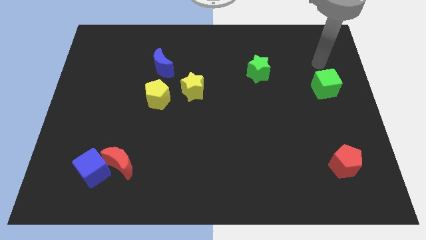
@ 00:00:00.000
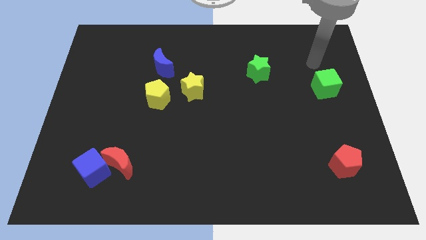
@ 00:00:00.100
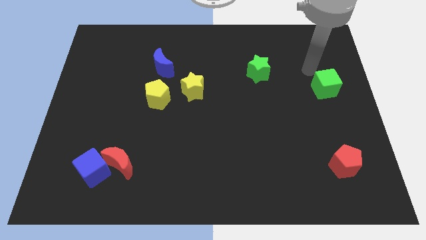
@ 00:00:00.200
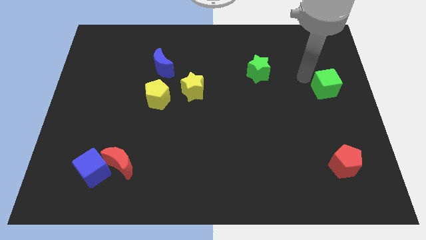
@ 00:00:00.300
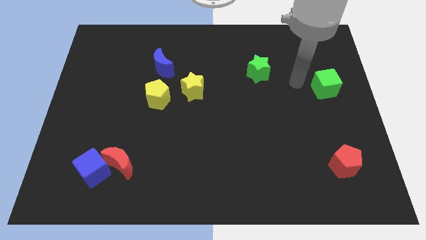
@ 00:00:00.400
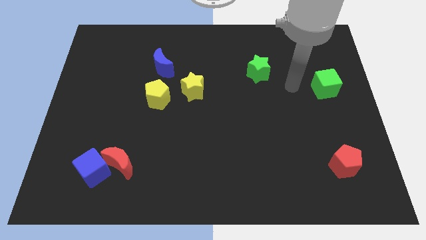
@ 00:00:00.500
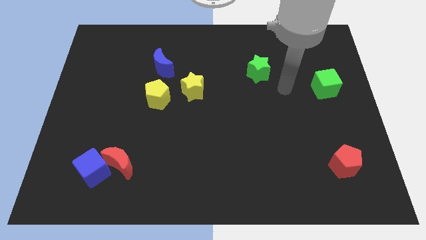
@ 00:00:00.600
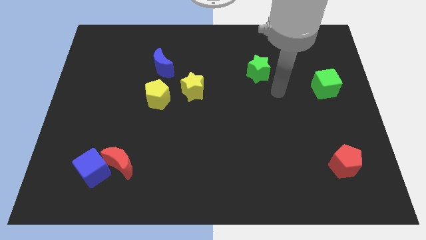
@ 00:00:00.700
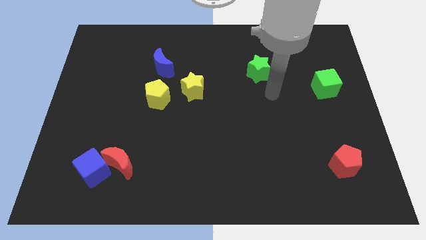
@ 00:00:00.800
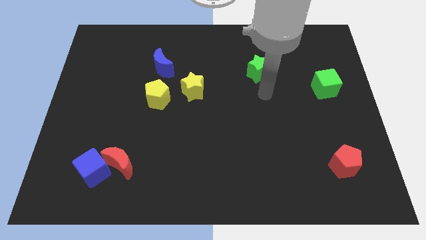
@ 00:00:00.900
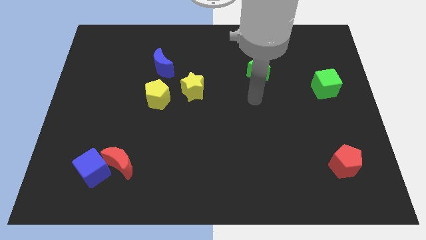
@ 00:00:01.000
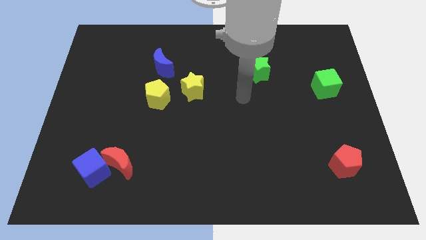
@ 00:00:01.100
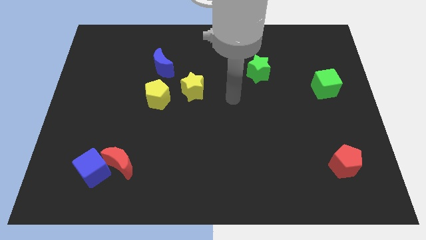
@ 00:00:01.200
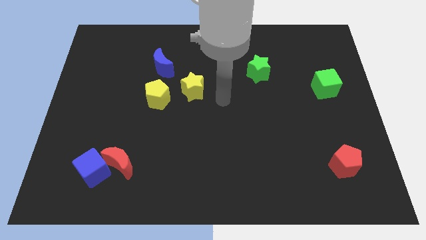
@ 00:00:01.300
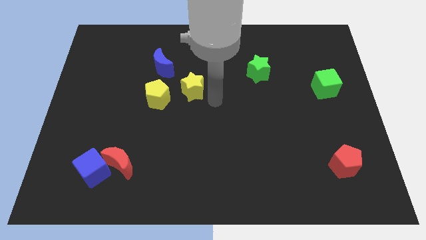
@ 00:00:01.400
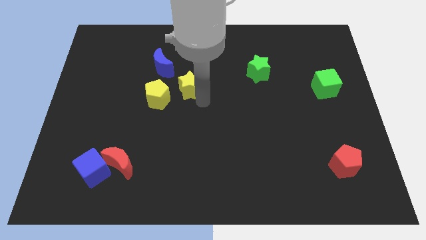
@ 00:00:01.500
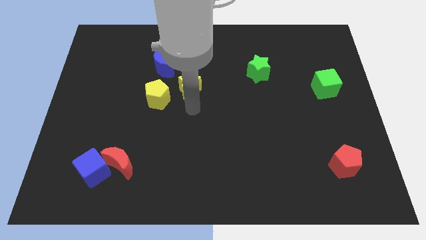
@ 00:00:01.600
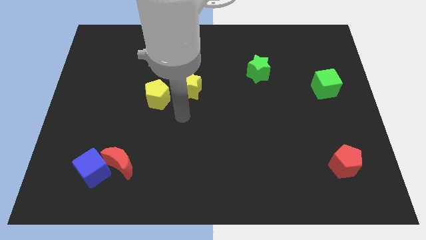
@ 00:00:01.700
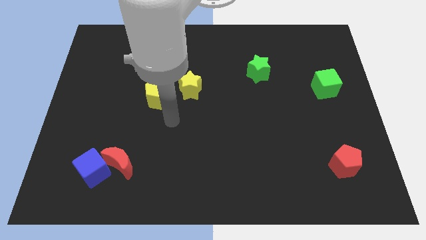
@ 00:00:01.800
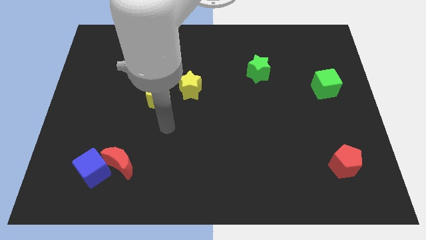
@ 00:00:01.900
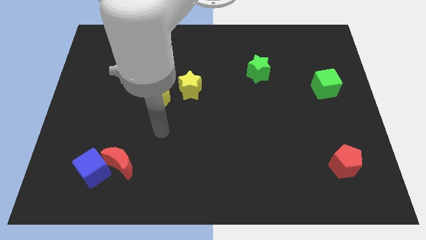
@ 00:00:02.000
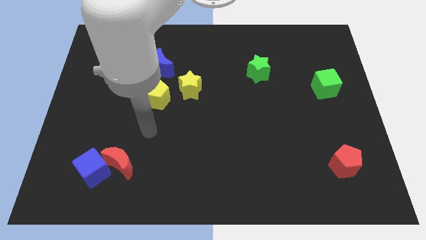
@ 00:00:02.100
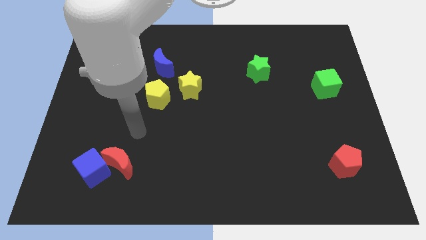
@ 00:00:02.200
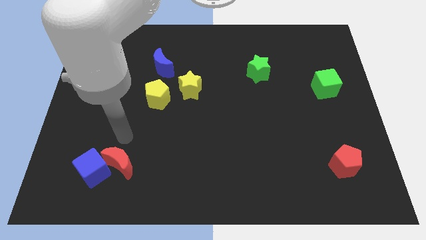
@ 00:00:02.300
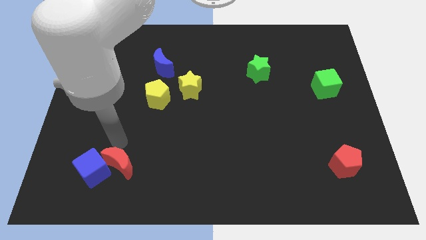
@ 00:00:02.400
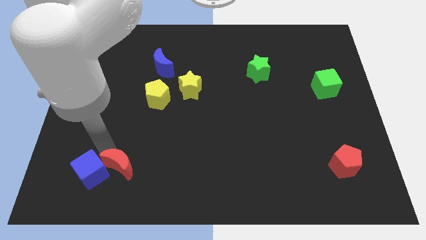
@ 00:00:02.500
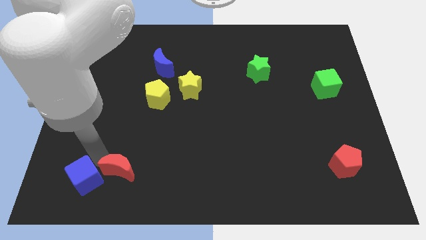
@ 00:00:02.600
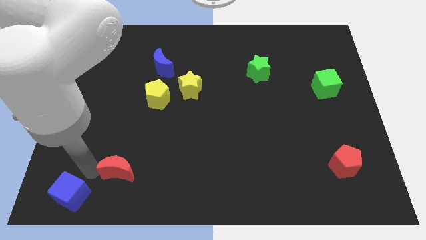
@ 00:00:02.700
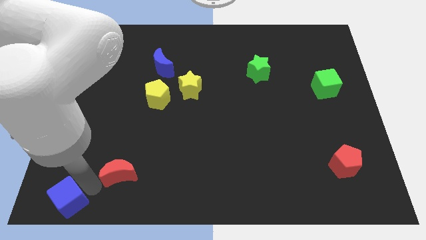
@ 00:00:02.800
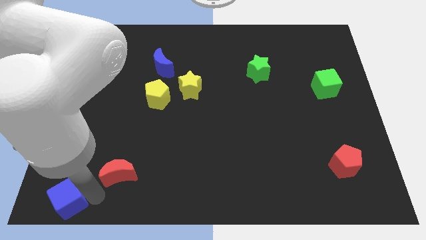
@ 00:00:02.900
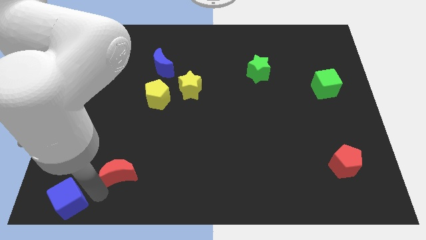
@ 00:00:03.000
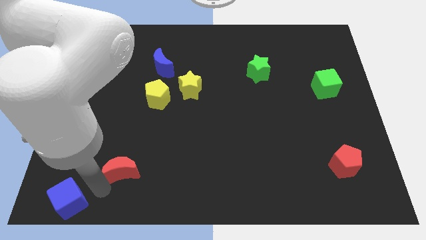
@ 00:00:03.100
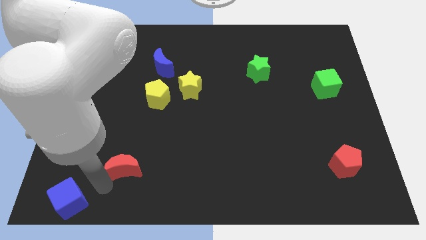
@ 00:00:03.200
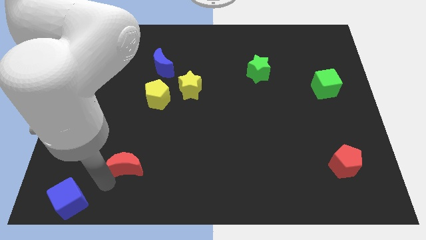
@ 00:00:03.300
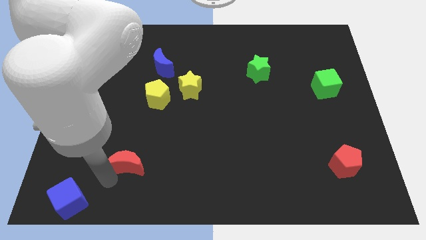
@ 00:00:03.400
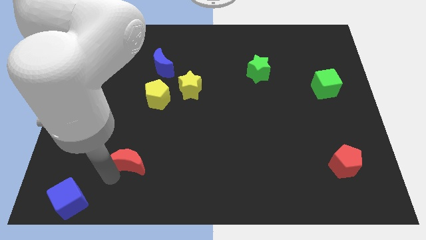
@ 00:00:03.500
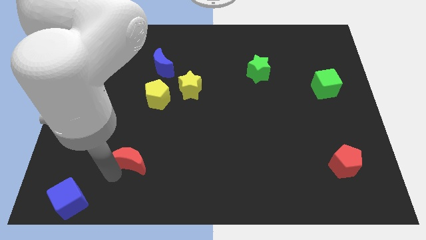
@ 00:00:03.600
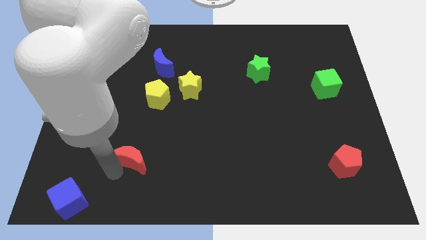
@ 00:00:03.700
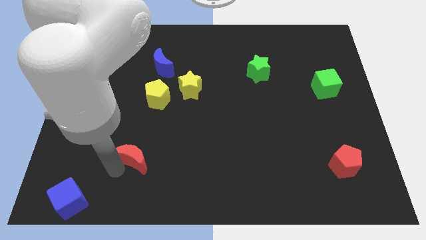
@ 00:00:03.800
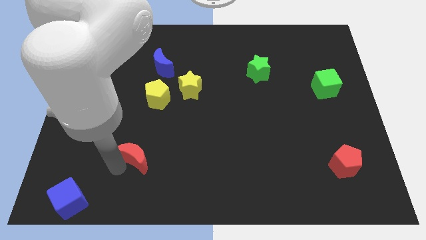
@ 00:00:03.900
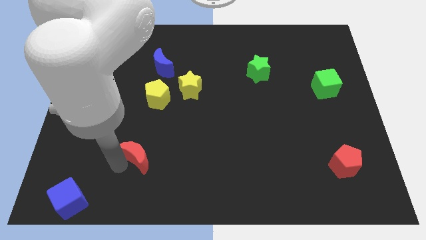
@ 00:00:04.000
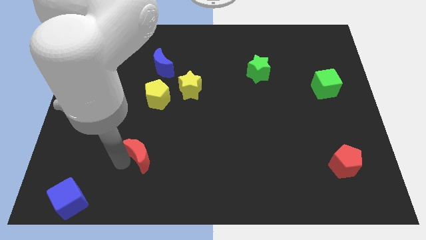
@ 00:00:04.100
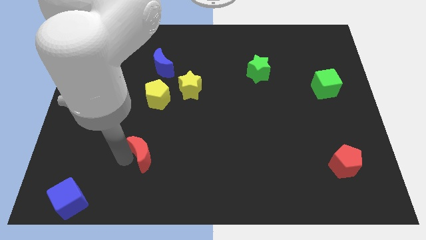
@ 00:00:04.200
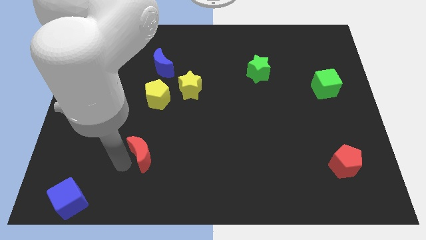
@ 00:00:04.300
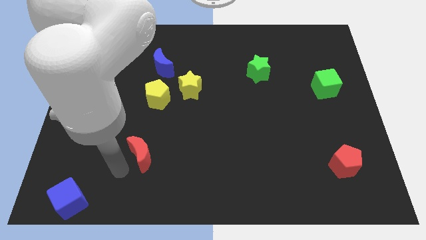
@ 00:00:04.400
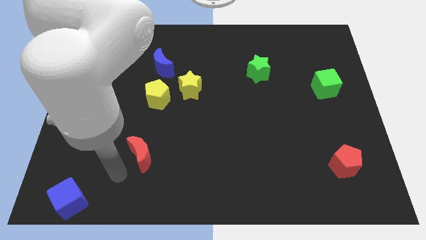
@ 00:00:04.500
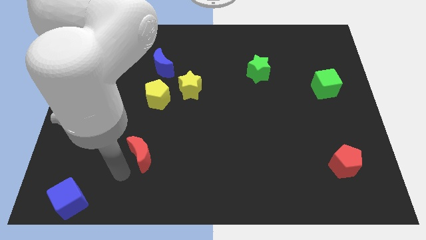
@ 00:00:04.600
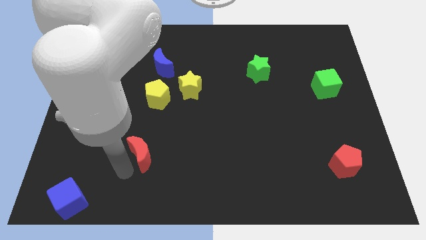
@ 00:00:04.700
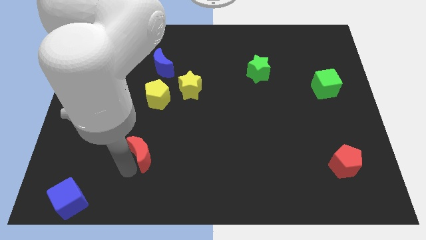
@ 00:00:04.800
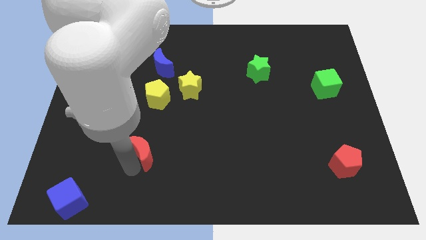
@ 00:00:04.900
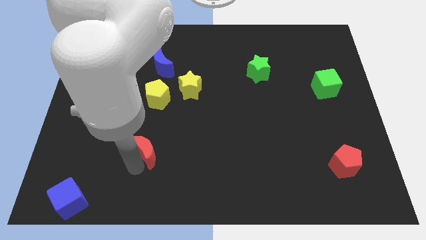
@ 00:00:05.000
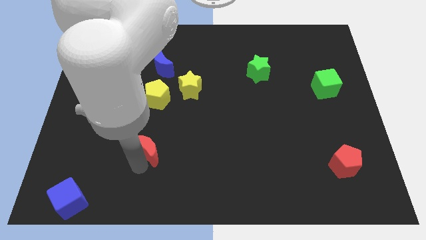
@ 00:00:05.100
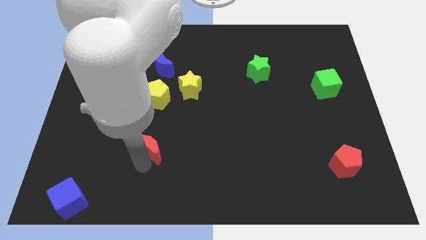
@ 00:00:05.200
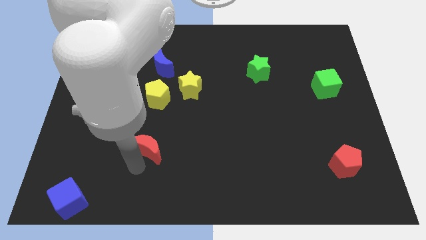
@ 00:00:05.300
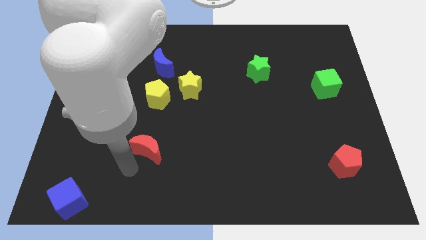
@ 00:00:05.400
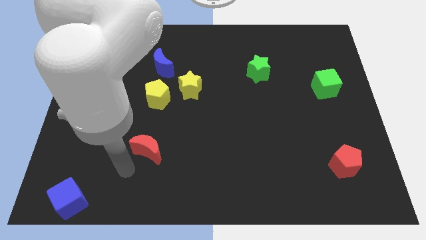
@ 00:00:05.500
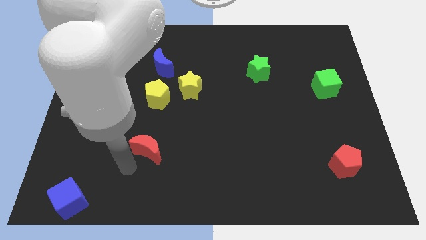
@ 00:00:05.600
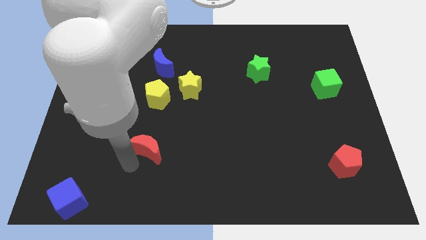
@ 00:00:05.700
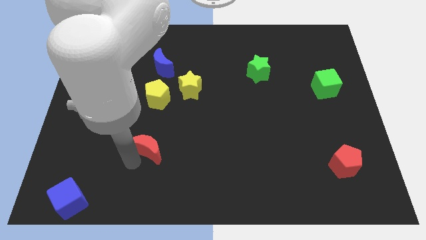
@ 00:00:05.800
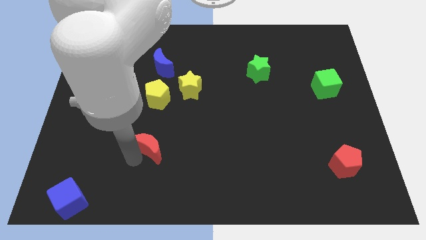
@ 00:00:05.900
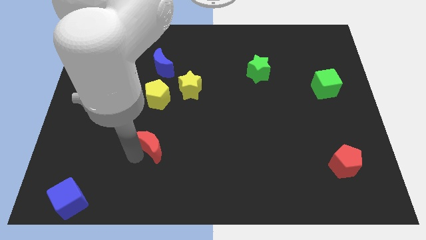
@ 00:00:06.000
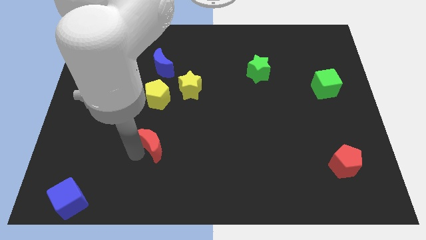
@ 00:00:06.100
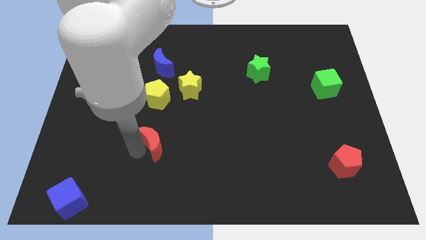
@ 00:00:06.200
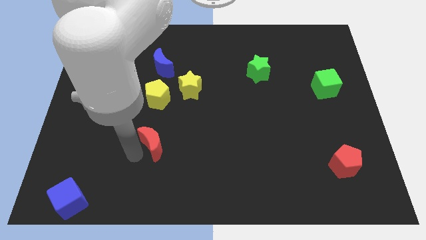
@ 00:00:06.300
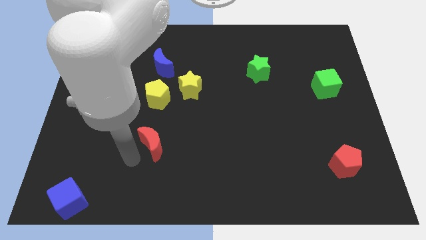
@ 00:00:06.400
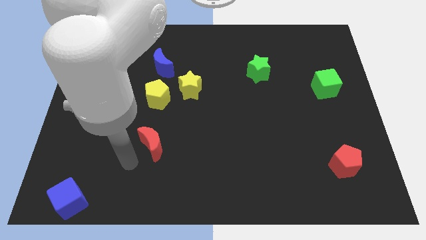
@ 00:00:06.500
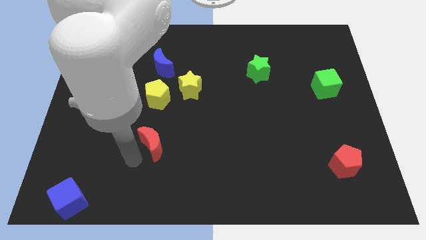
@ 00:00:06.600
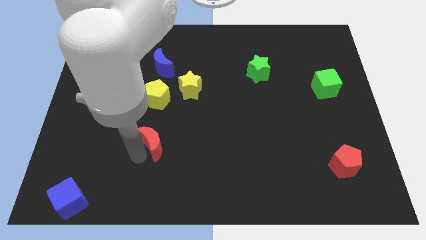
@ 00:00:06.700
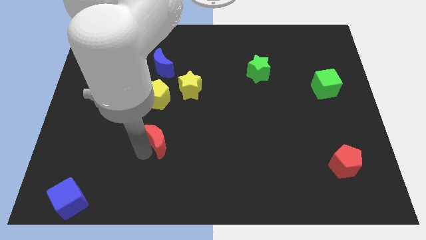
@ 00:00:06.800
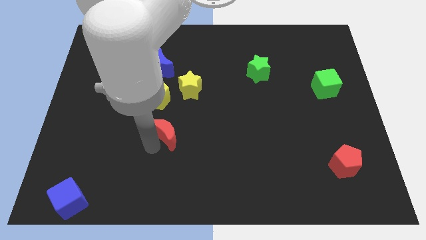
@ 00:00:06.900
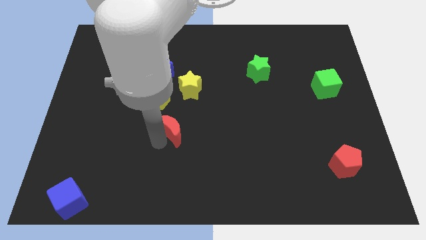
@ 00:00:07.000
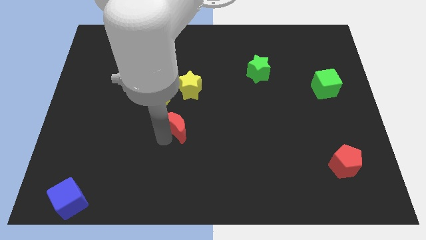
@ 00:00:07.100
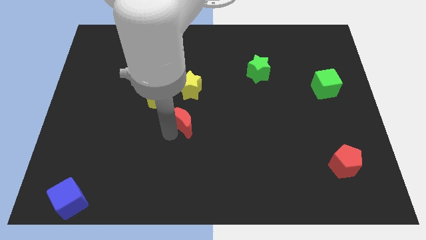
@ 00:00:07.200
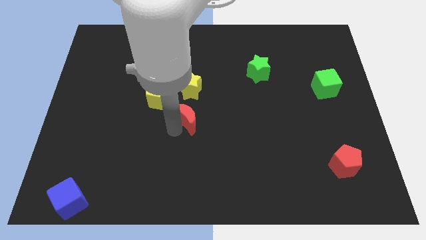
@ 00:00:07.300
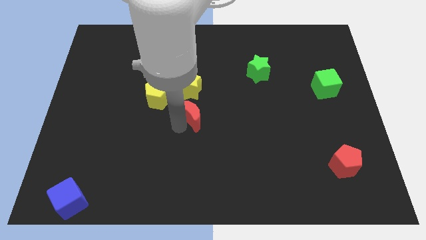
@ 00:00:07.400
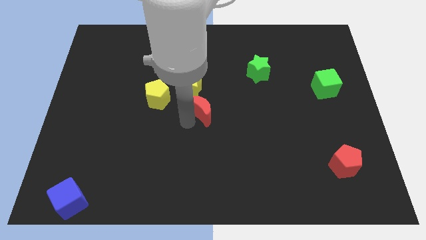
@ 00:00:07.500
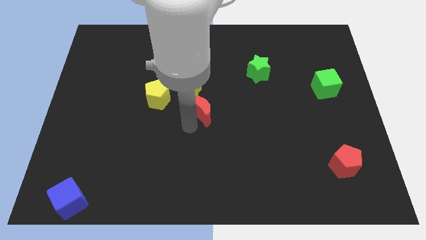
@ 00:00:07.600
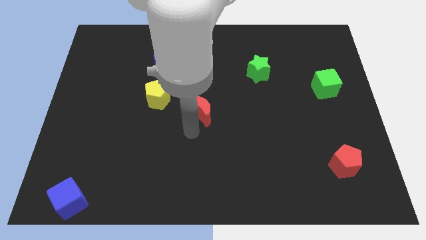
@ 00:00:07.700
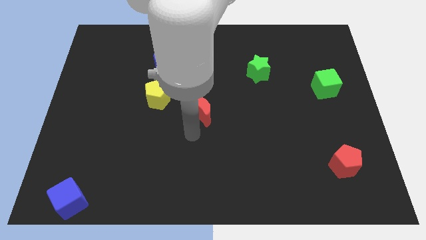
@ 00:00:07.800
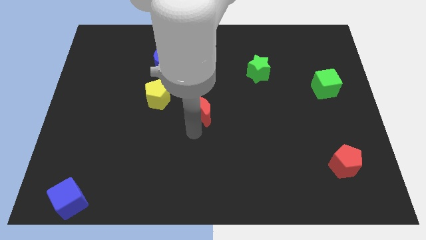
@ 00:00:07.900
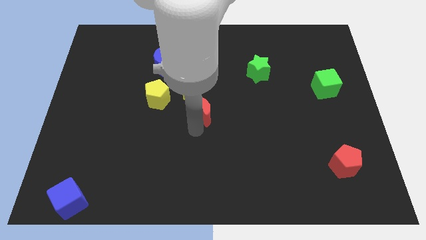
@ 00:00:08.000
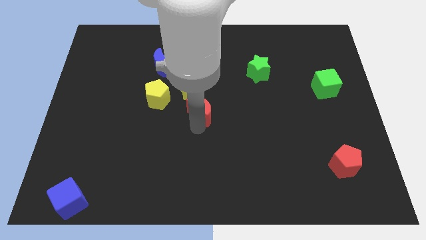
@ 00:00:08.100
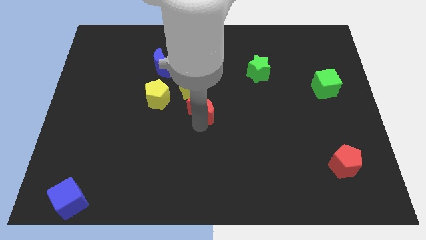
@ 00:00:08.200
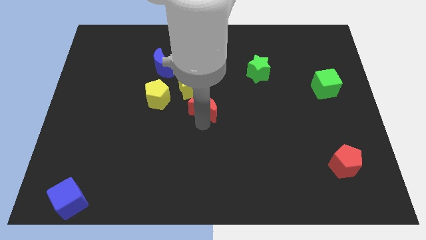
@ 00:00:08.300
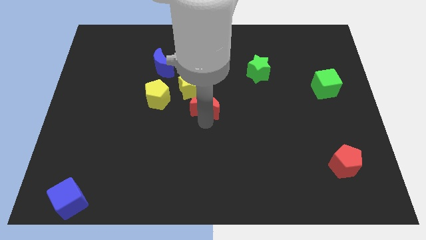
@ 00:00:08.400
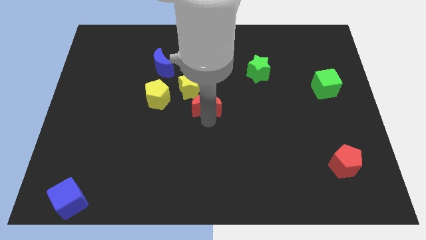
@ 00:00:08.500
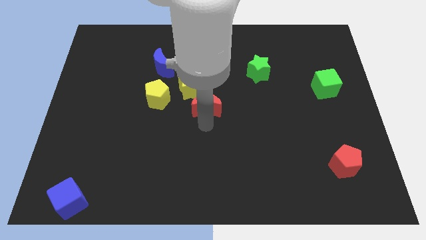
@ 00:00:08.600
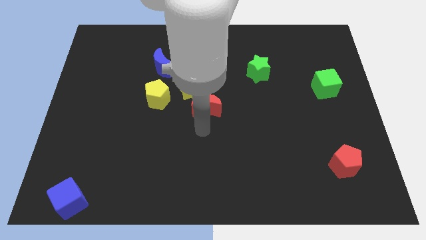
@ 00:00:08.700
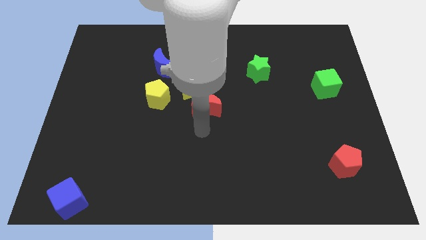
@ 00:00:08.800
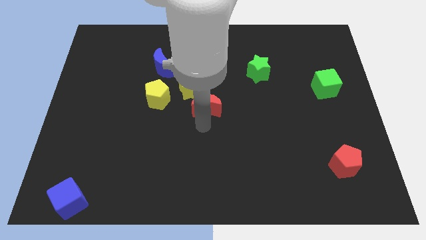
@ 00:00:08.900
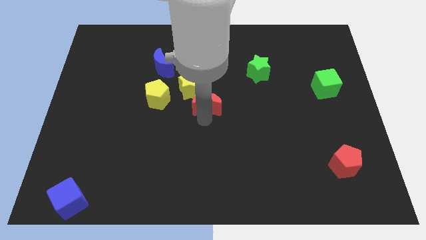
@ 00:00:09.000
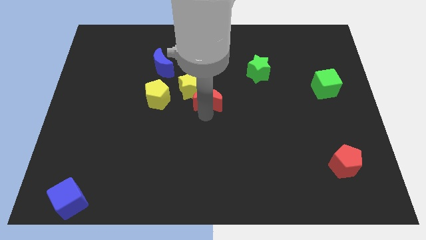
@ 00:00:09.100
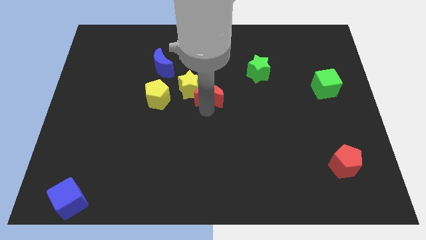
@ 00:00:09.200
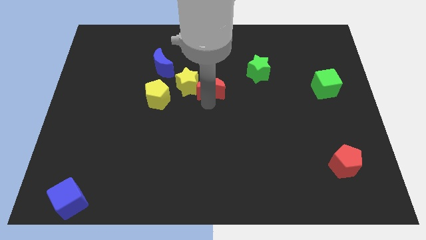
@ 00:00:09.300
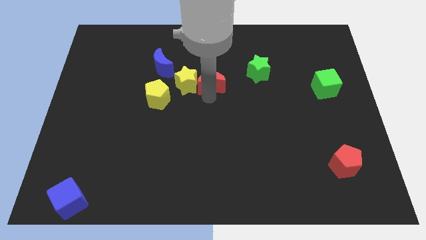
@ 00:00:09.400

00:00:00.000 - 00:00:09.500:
push the red moon to the left of the green star
